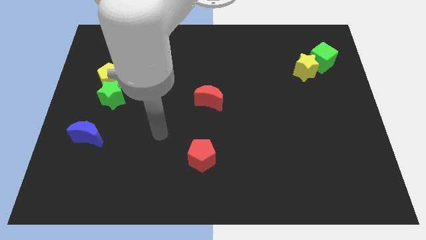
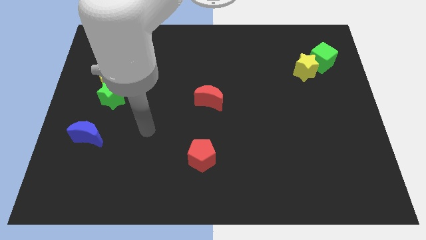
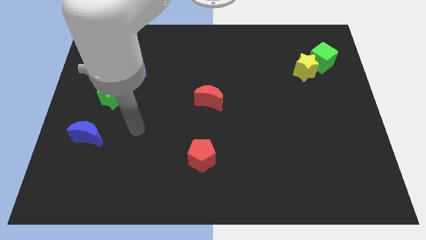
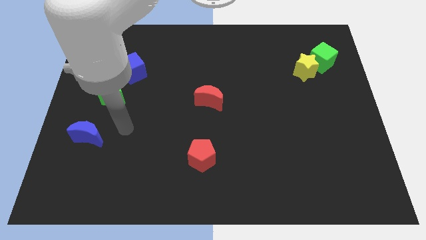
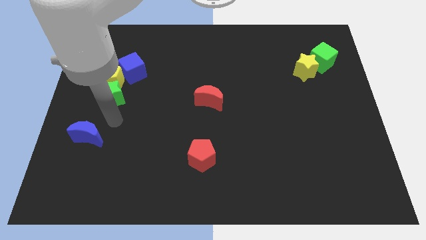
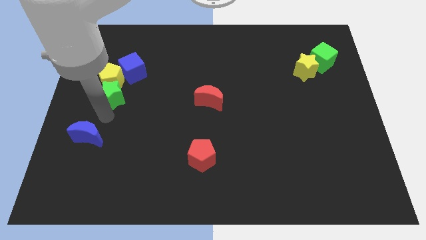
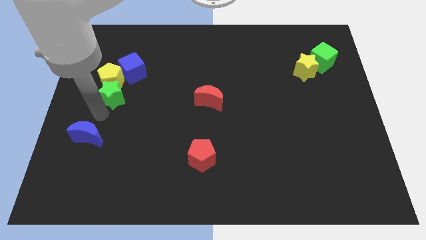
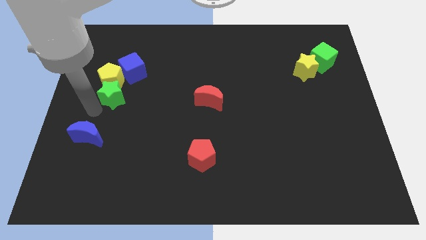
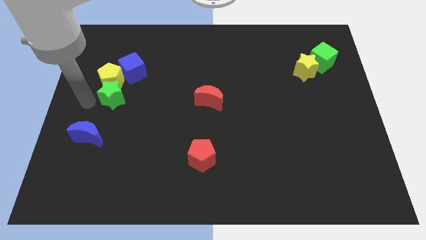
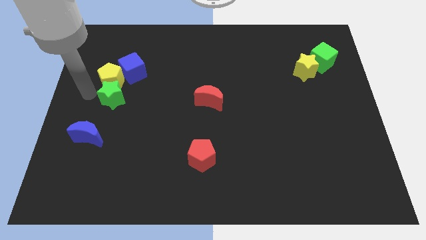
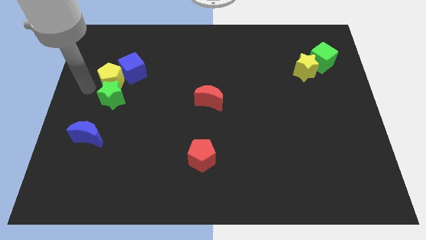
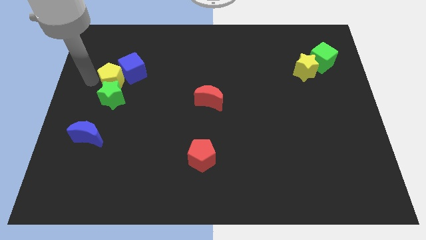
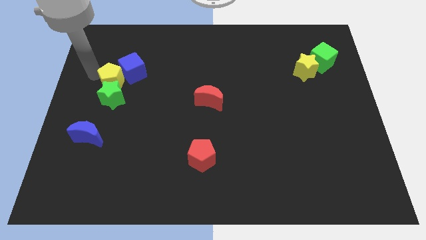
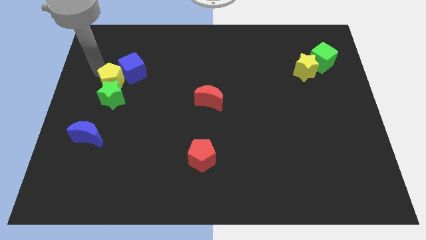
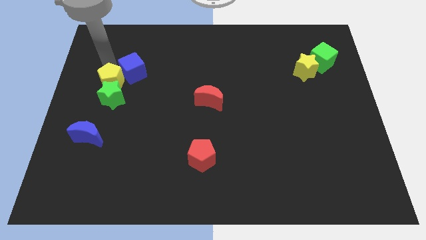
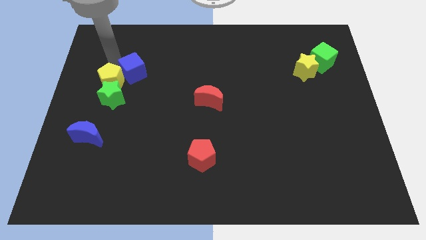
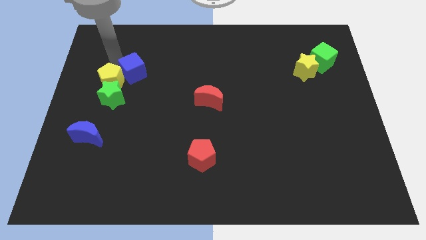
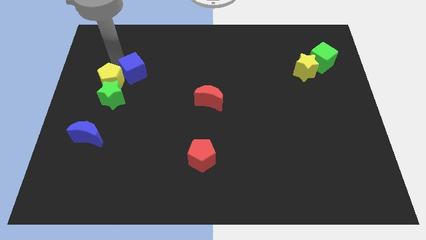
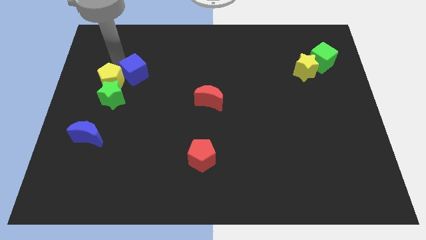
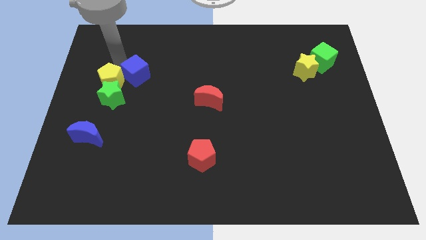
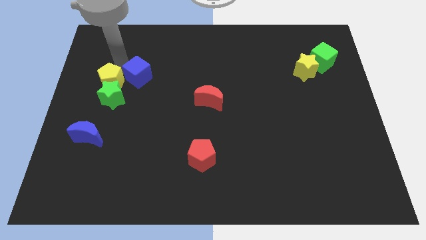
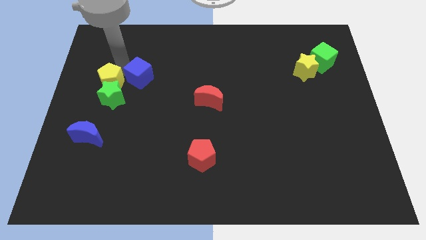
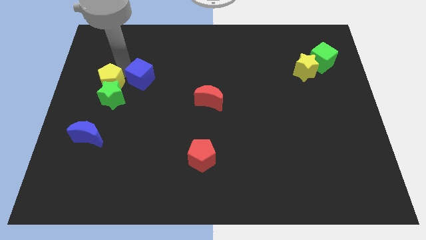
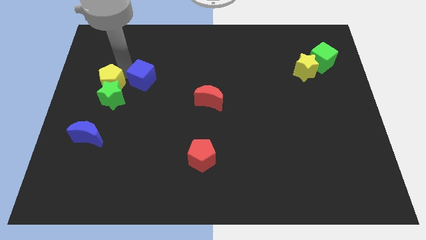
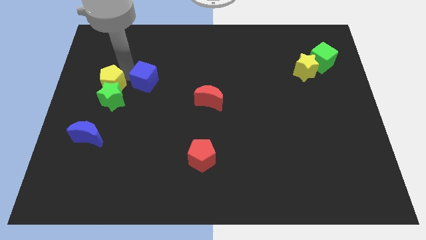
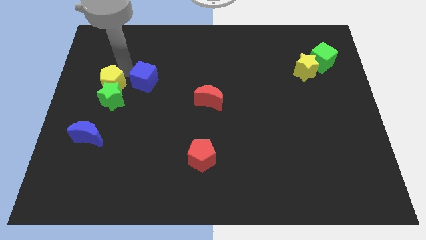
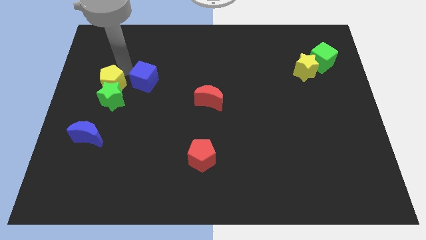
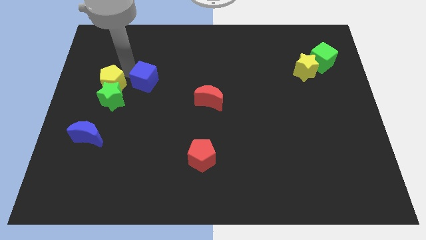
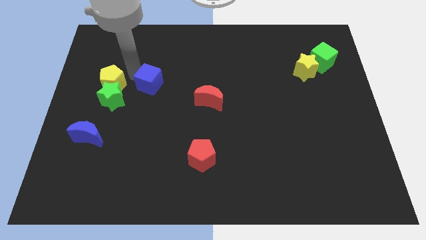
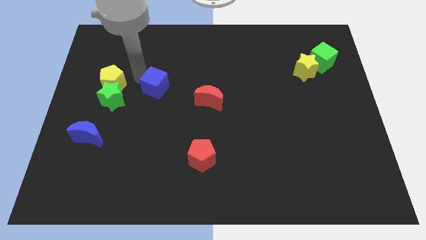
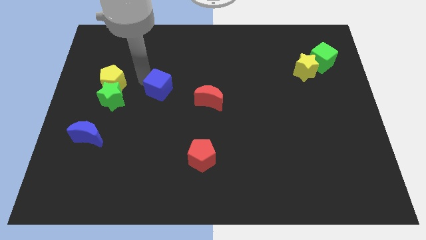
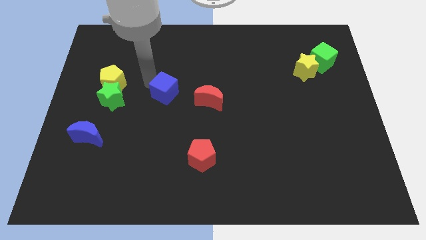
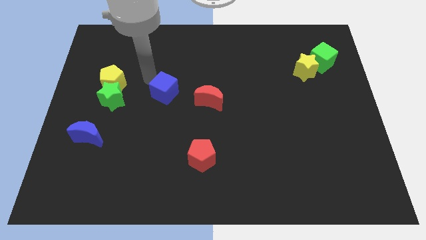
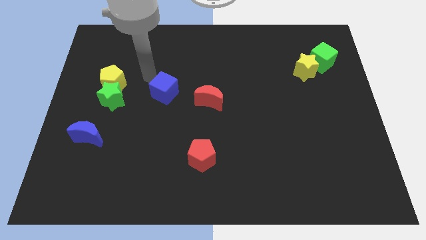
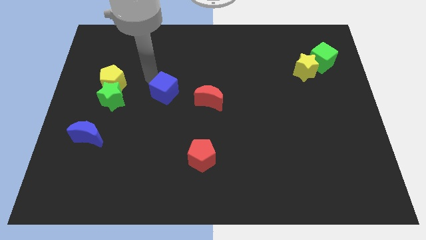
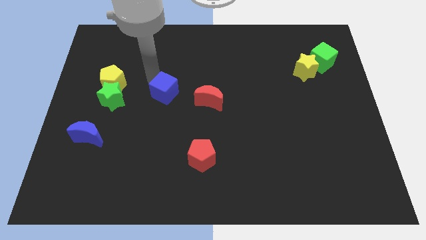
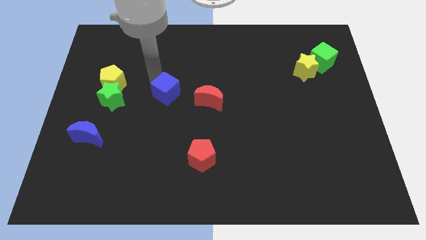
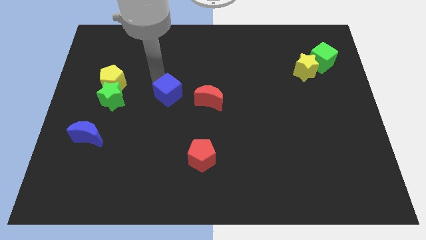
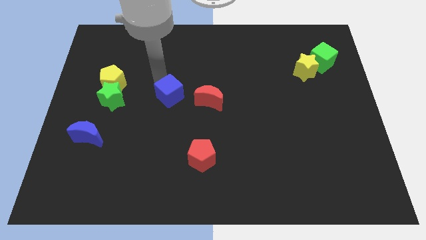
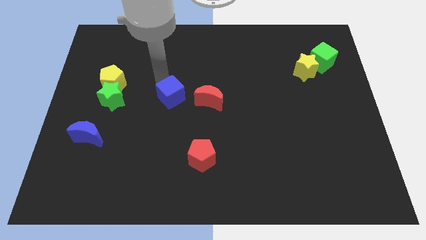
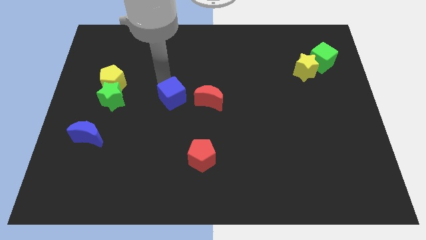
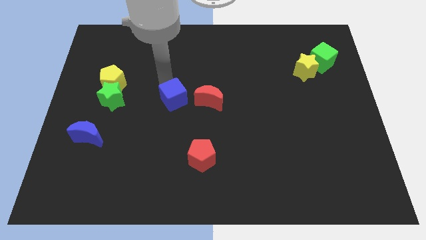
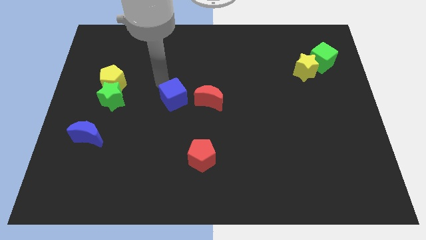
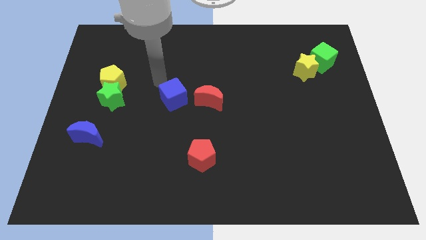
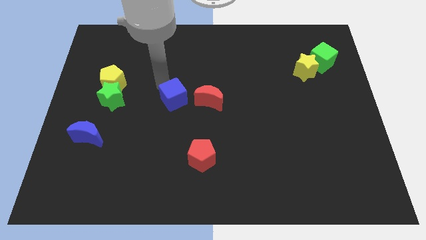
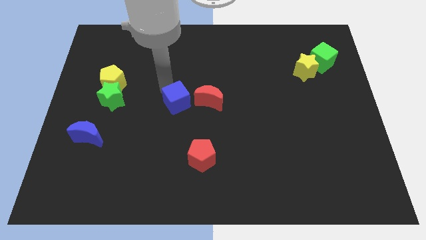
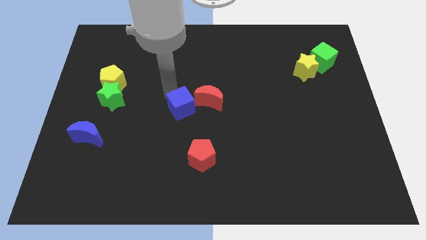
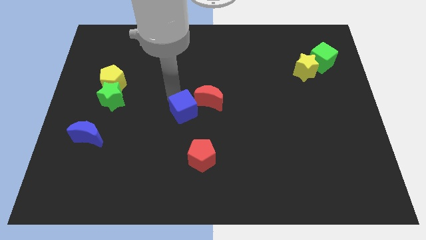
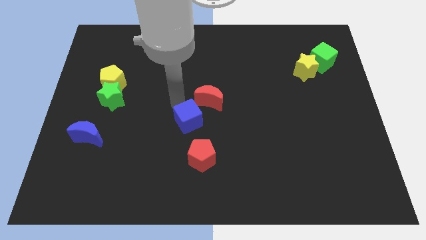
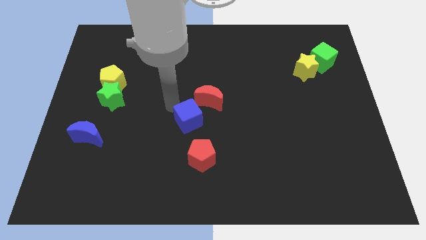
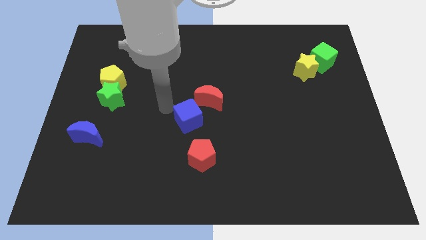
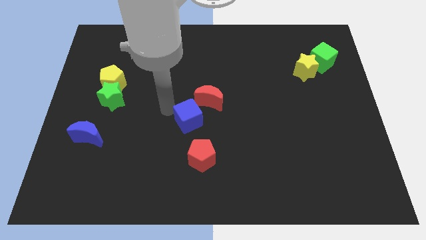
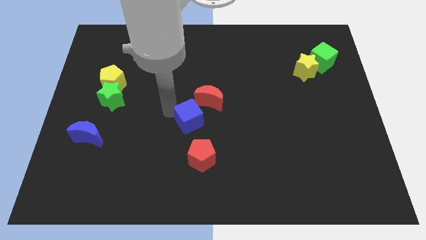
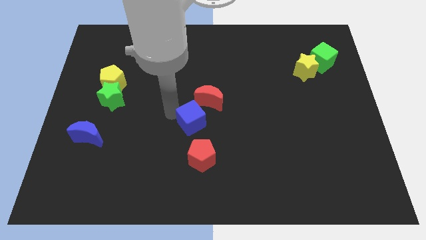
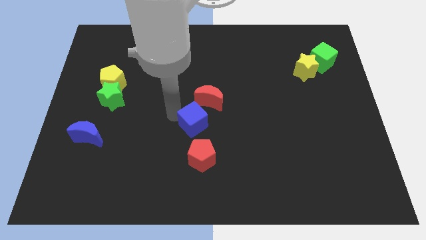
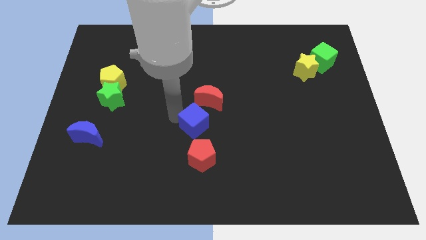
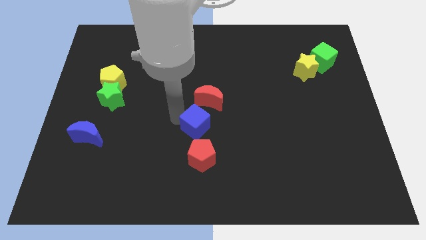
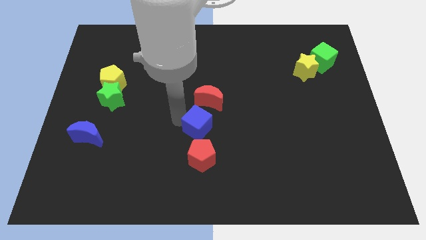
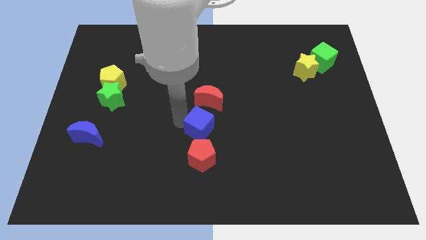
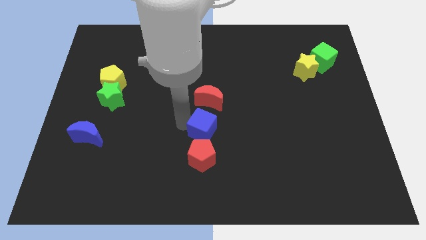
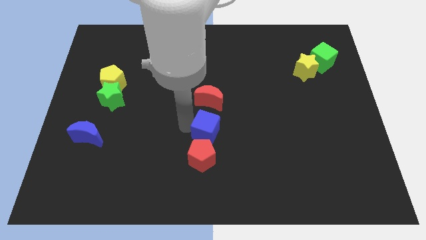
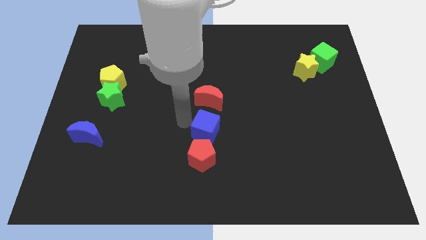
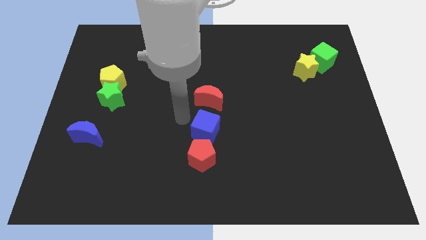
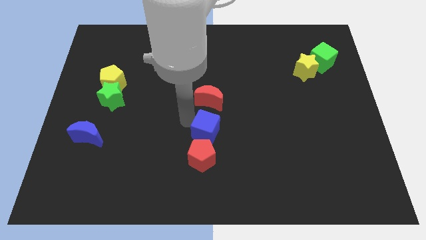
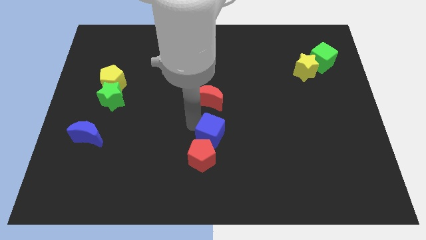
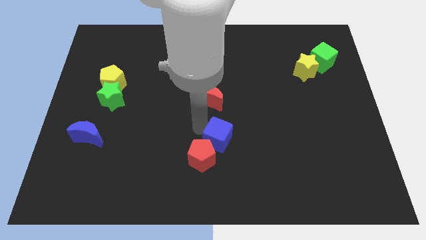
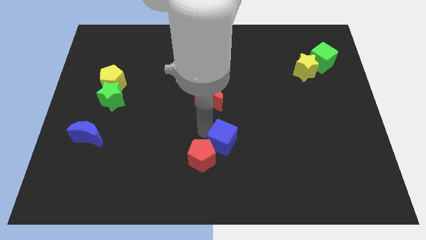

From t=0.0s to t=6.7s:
push the blue cube to the right of the red pentagon

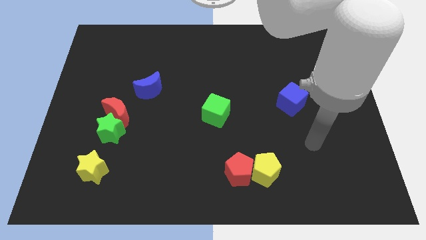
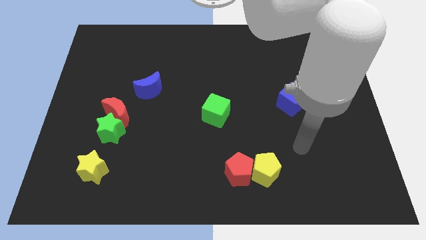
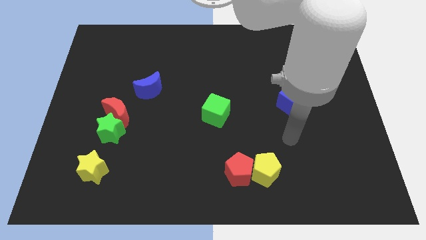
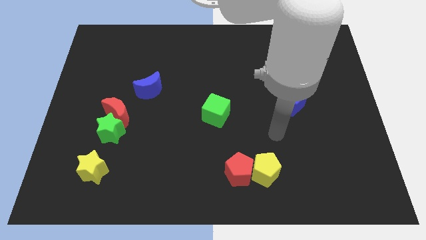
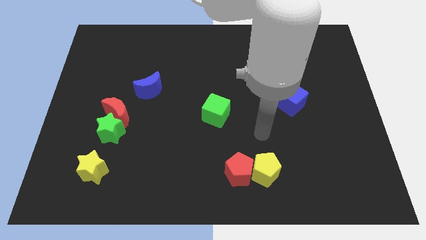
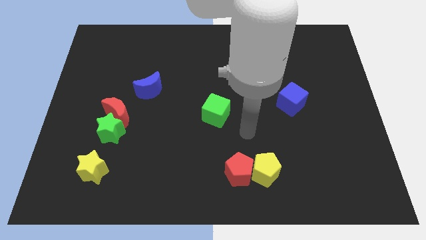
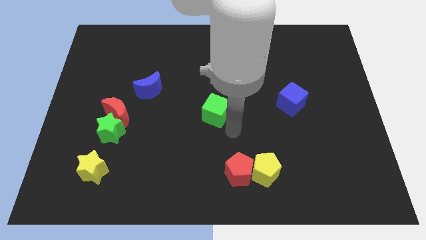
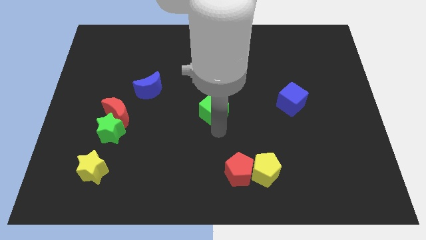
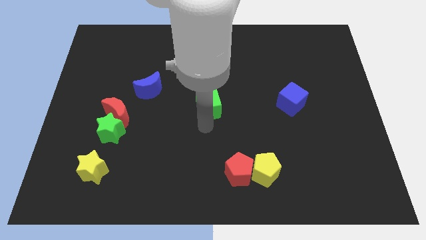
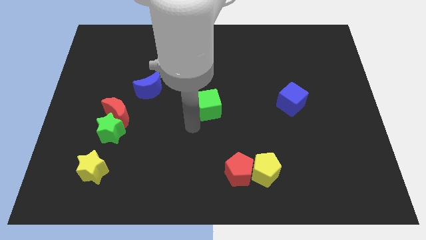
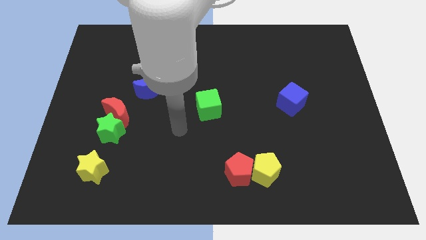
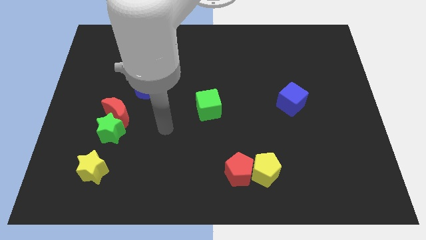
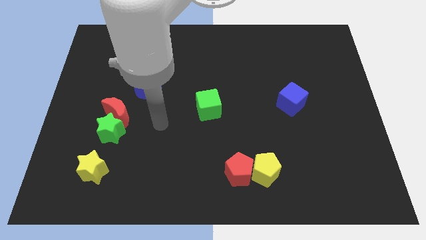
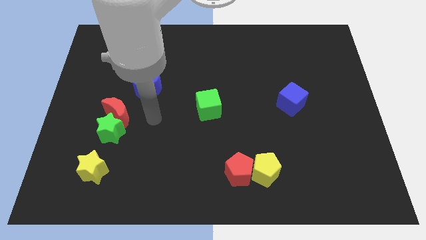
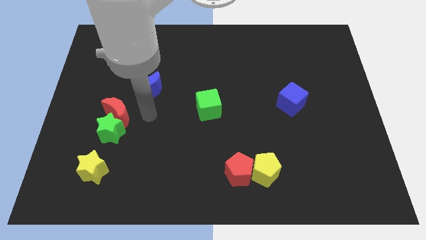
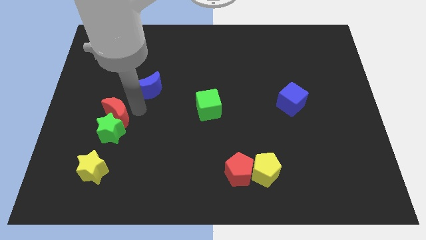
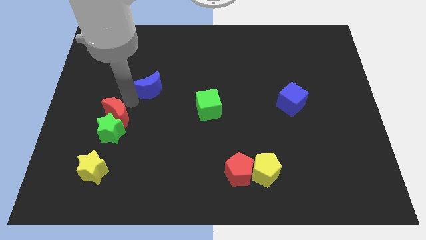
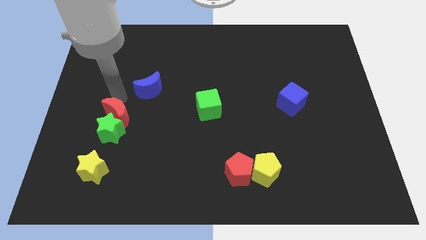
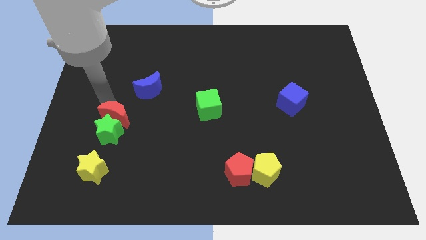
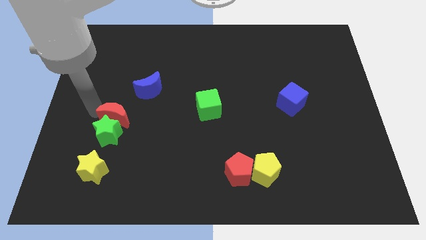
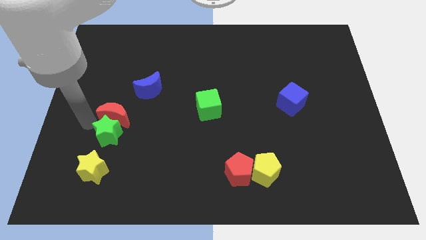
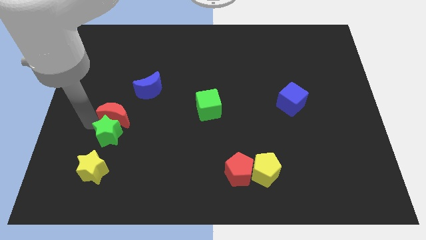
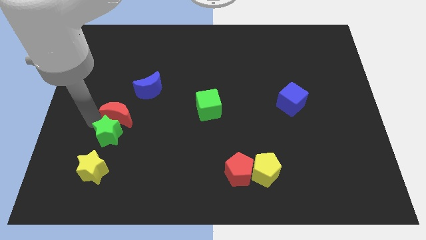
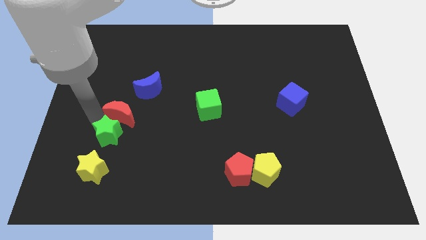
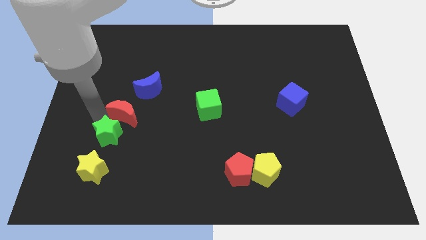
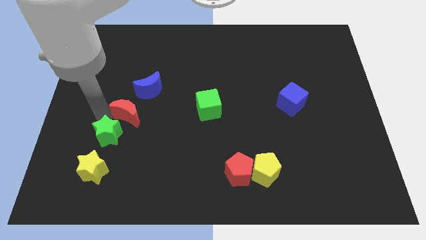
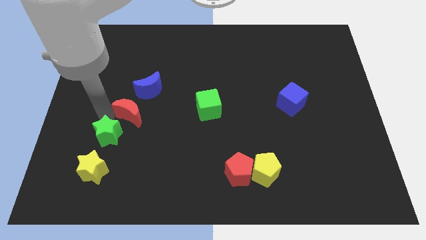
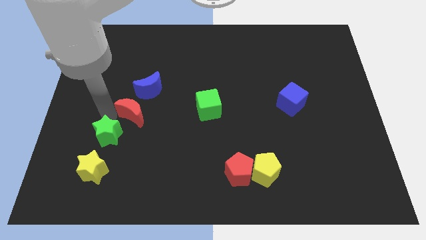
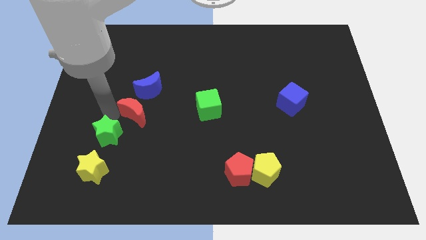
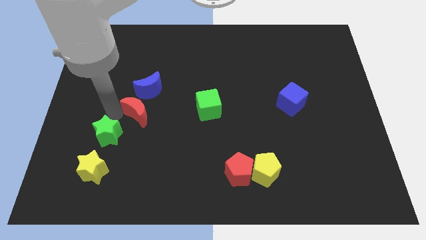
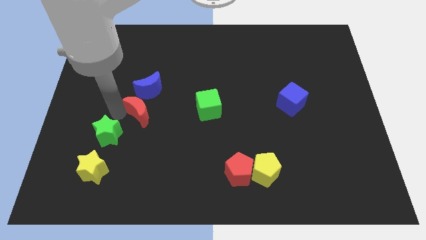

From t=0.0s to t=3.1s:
slide the red moon to the left of the green cube
